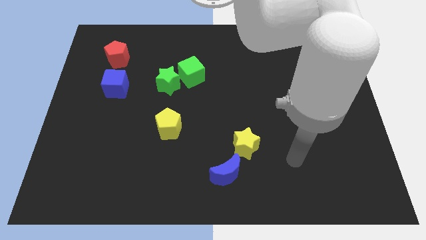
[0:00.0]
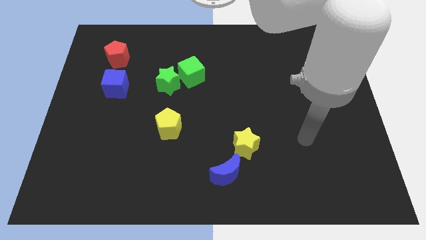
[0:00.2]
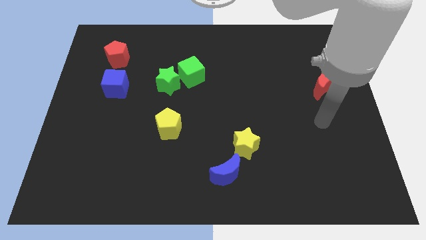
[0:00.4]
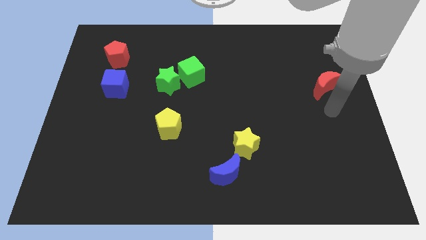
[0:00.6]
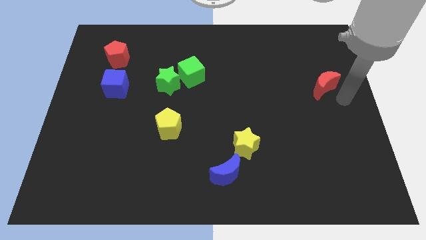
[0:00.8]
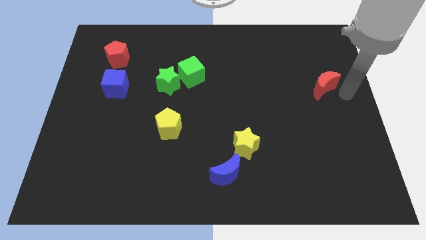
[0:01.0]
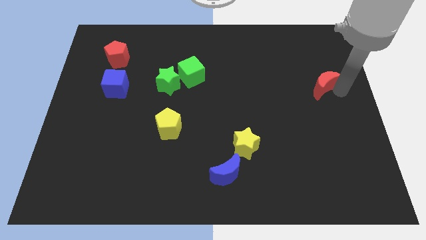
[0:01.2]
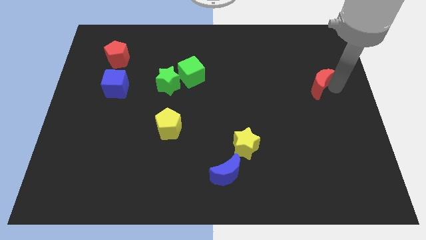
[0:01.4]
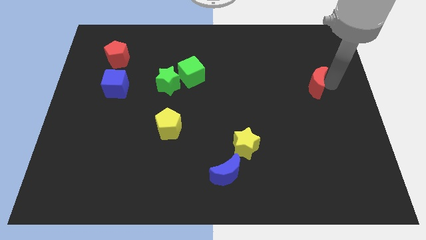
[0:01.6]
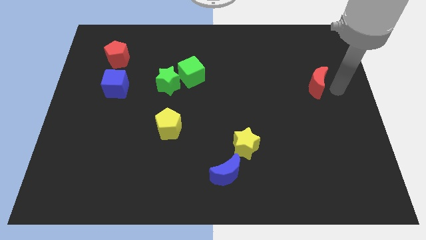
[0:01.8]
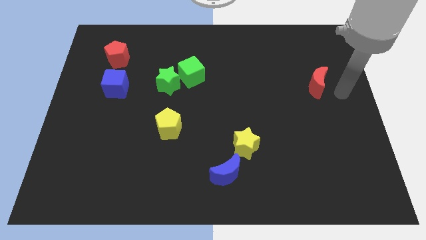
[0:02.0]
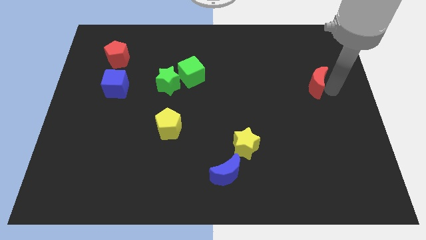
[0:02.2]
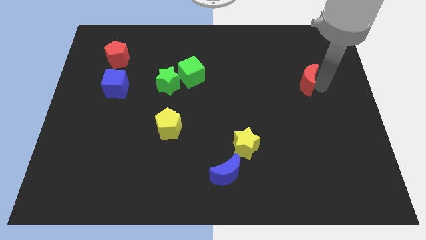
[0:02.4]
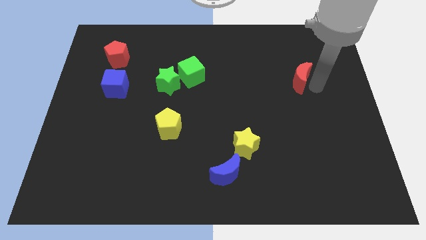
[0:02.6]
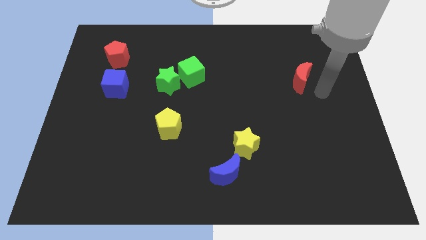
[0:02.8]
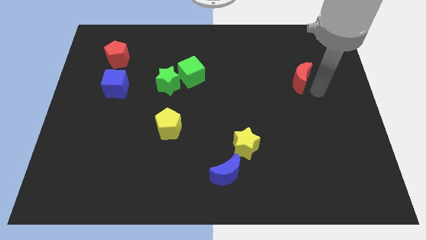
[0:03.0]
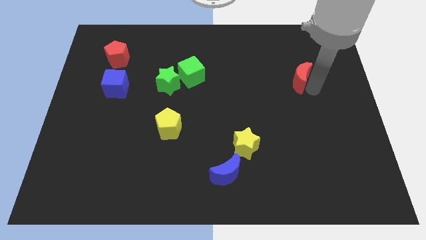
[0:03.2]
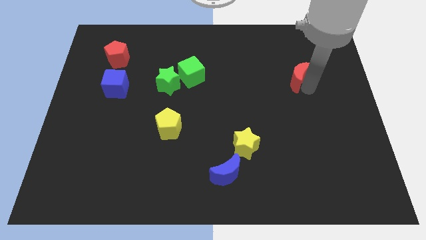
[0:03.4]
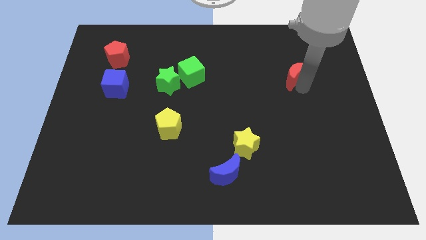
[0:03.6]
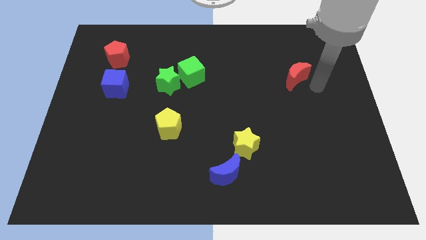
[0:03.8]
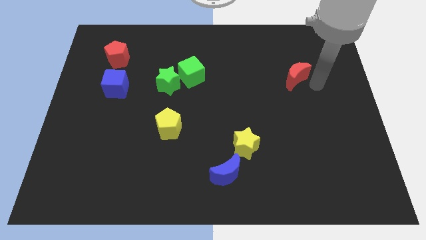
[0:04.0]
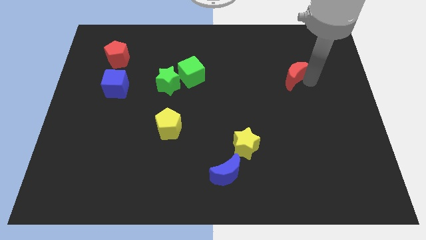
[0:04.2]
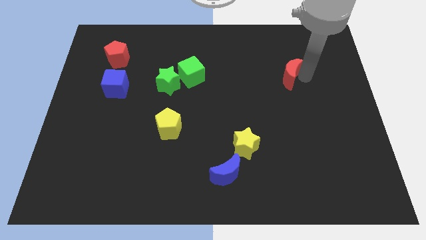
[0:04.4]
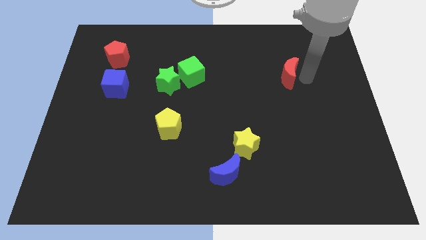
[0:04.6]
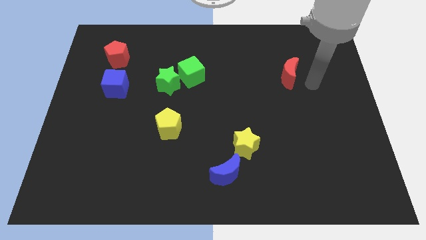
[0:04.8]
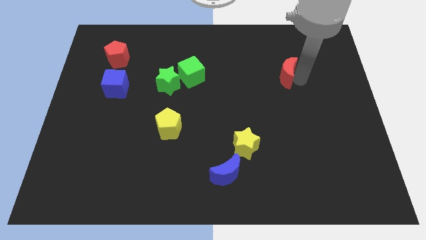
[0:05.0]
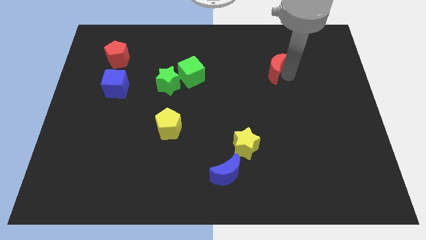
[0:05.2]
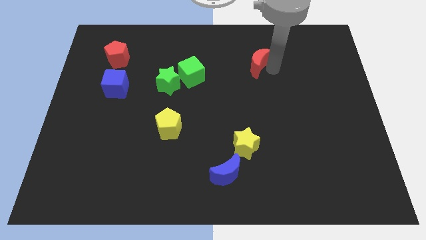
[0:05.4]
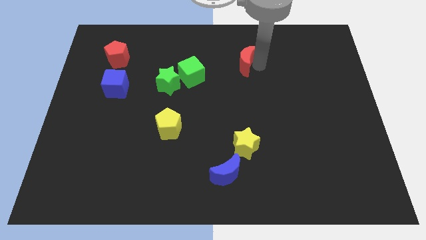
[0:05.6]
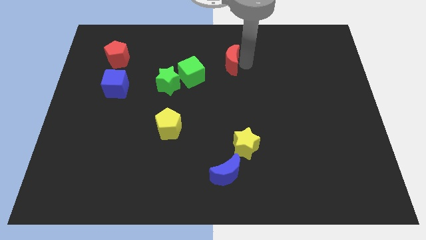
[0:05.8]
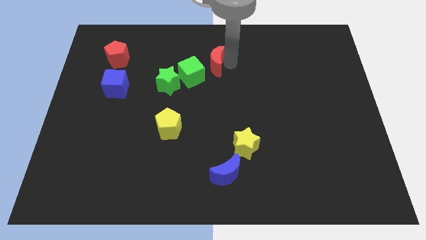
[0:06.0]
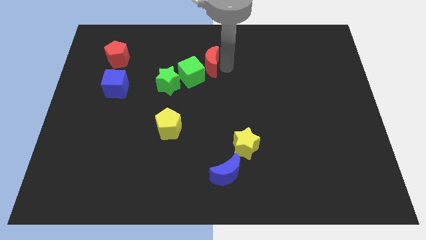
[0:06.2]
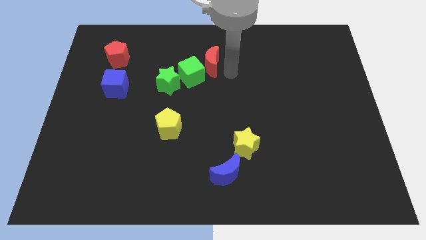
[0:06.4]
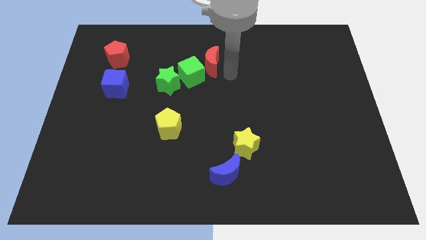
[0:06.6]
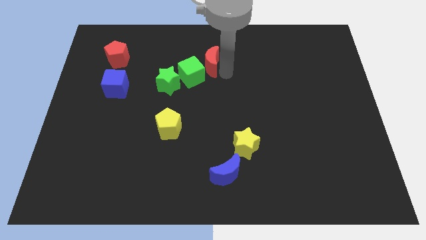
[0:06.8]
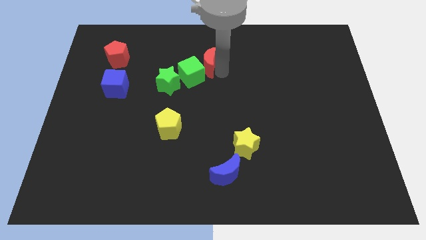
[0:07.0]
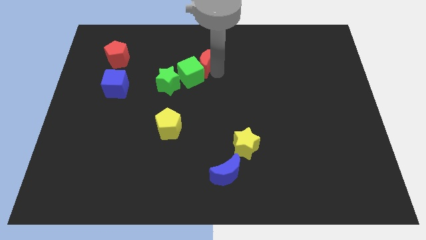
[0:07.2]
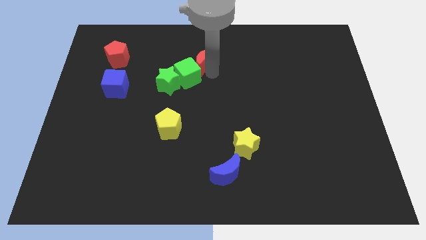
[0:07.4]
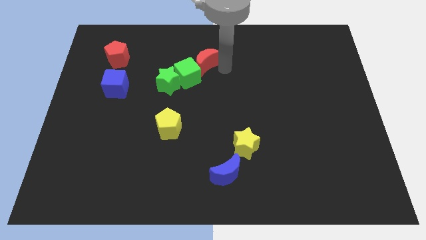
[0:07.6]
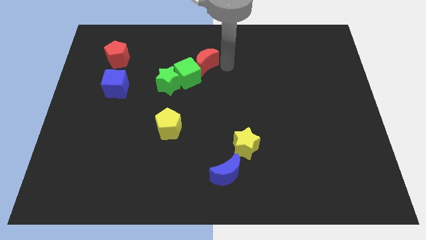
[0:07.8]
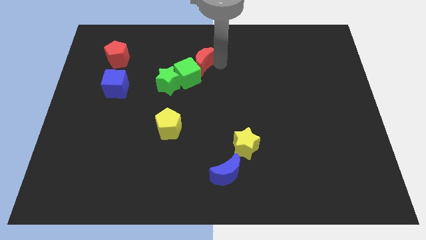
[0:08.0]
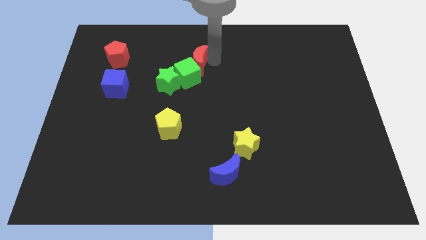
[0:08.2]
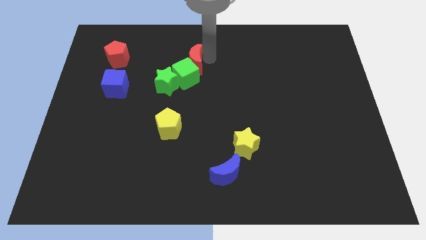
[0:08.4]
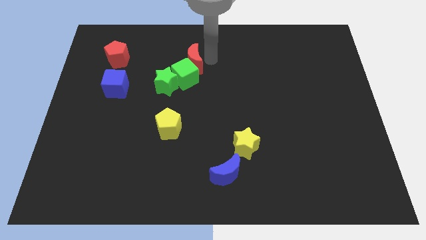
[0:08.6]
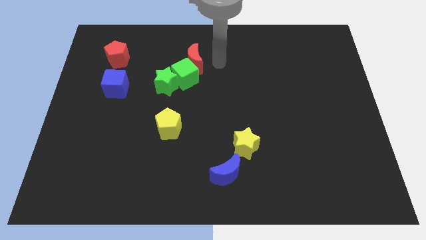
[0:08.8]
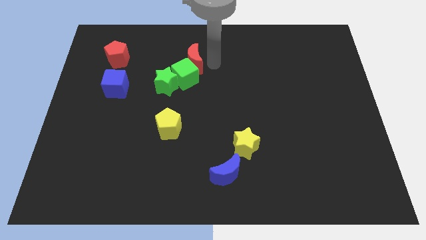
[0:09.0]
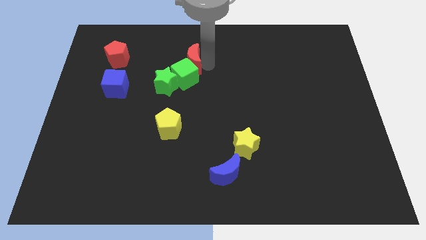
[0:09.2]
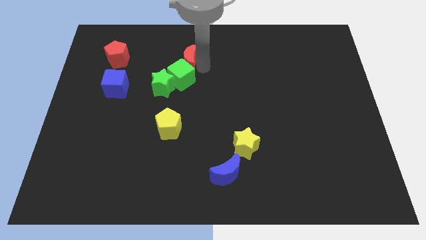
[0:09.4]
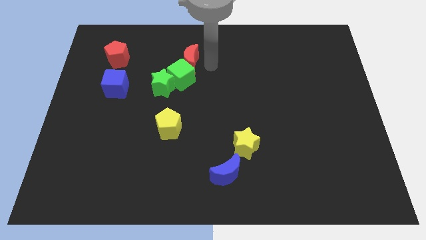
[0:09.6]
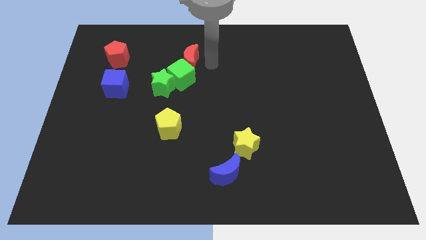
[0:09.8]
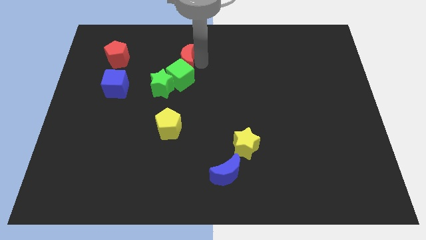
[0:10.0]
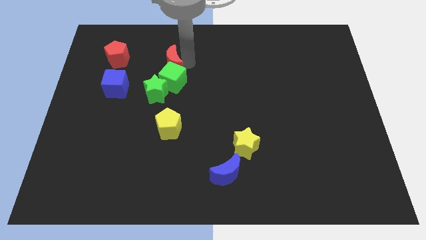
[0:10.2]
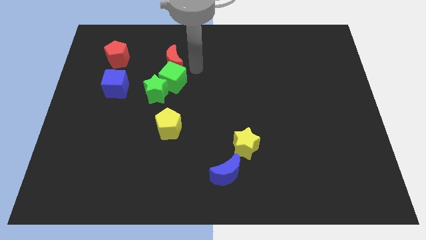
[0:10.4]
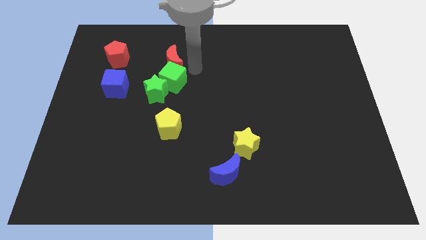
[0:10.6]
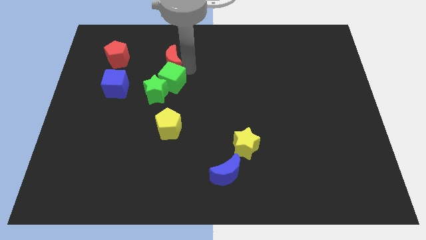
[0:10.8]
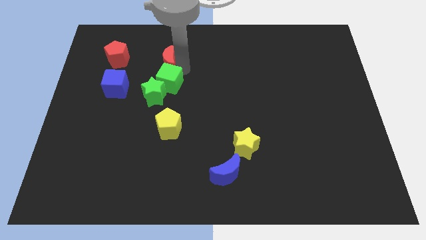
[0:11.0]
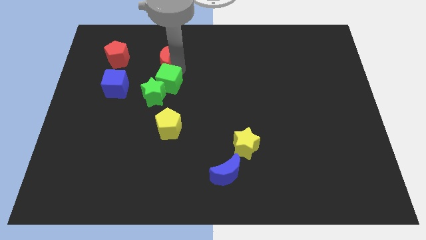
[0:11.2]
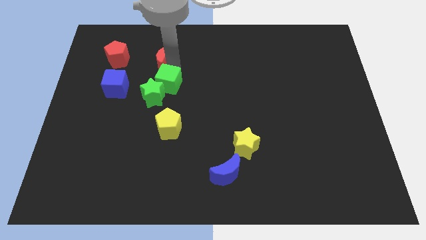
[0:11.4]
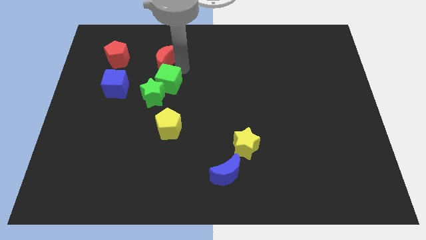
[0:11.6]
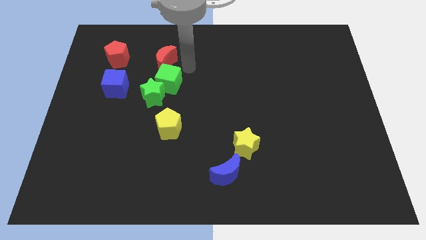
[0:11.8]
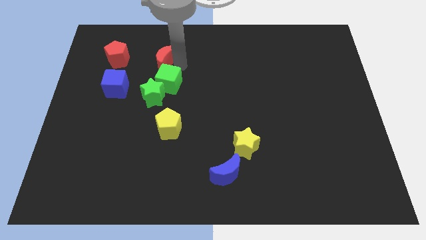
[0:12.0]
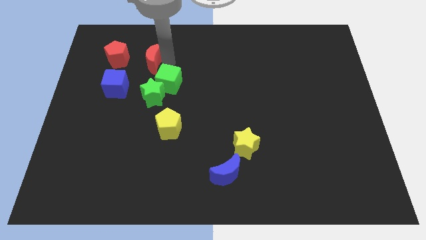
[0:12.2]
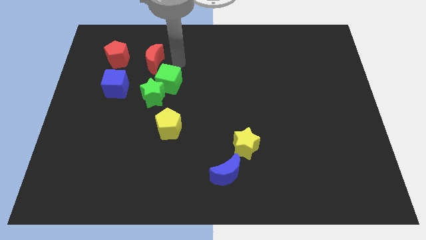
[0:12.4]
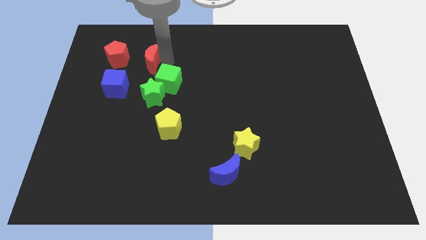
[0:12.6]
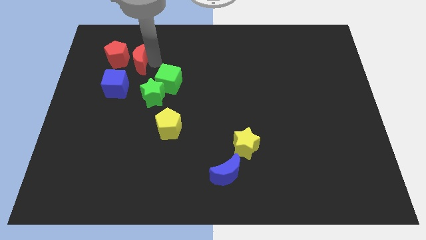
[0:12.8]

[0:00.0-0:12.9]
push the red moon towards the red pentagon
